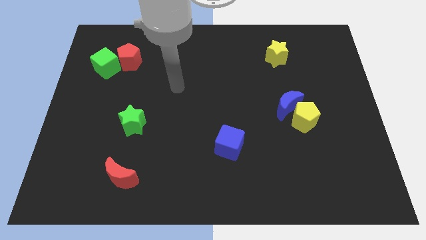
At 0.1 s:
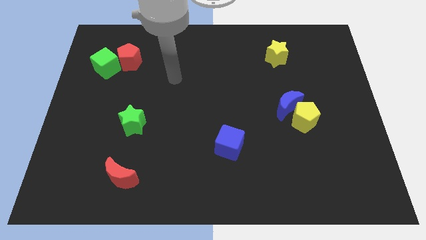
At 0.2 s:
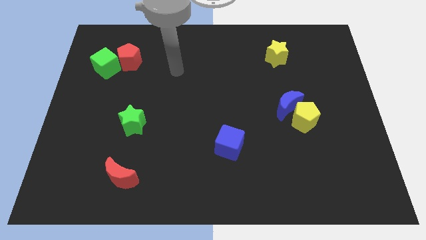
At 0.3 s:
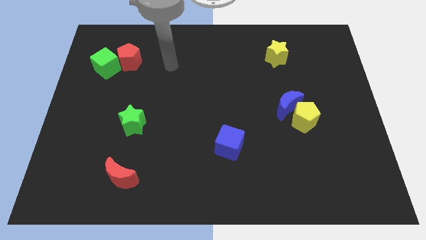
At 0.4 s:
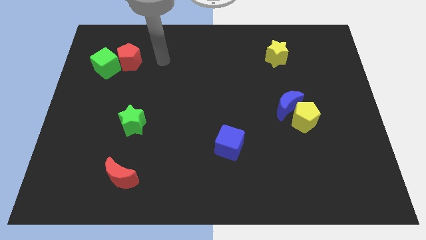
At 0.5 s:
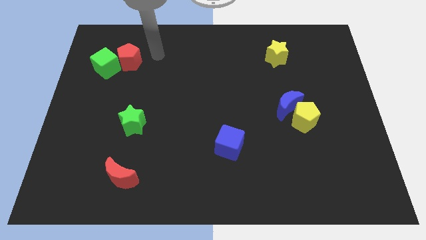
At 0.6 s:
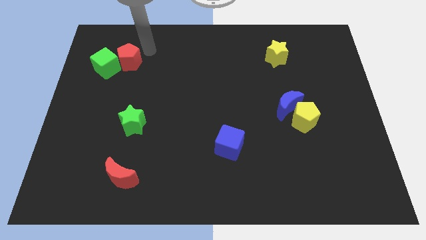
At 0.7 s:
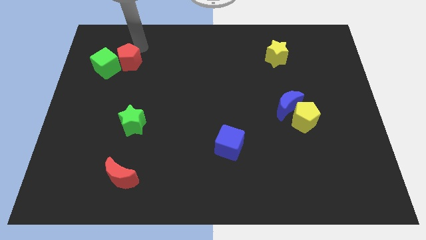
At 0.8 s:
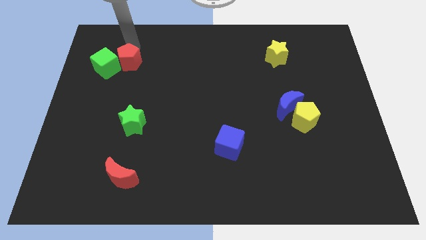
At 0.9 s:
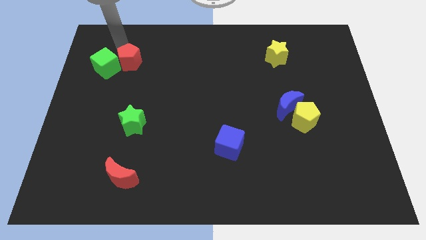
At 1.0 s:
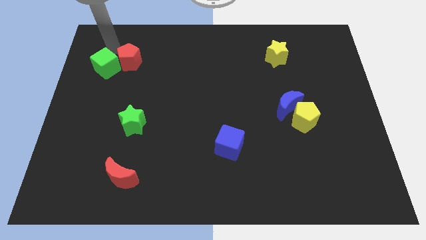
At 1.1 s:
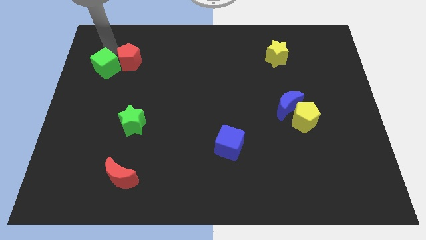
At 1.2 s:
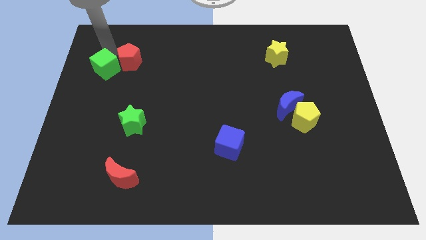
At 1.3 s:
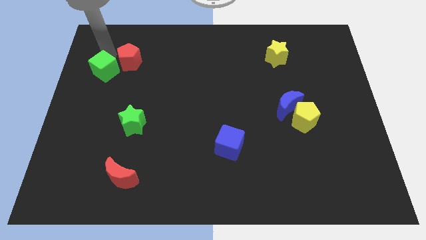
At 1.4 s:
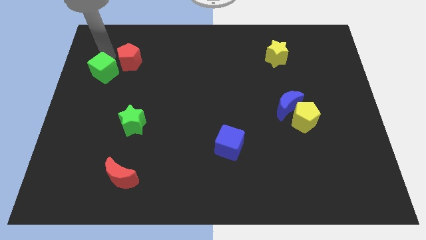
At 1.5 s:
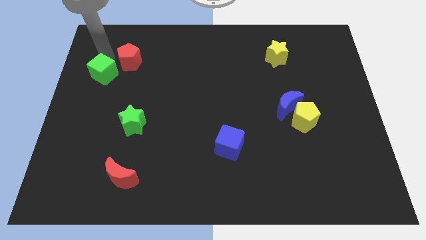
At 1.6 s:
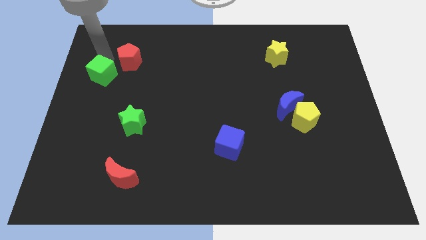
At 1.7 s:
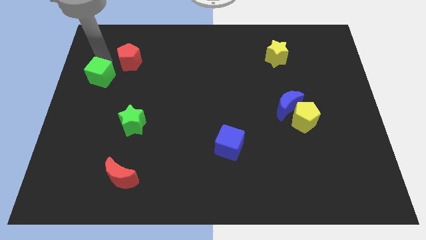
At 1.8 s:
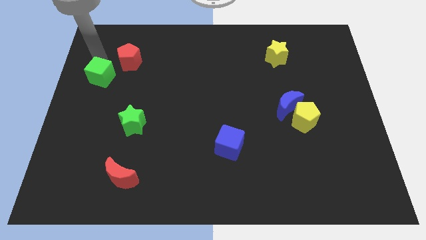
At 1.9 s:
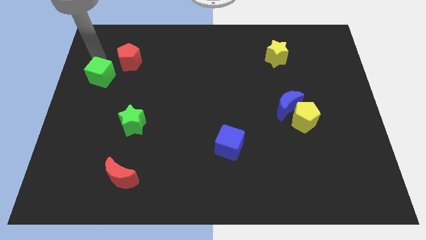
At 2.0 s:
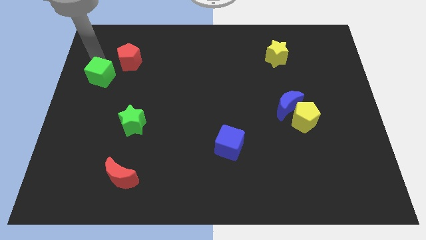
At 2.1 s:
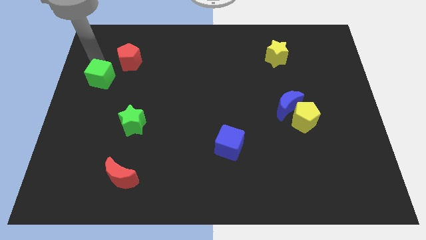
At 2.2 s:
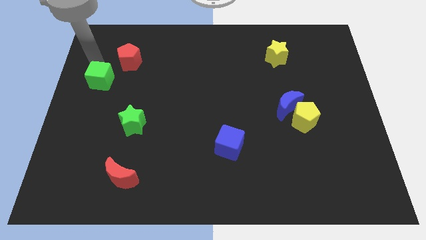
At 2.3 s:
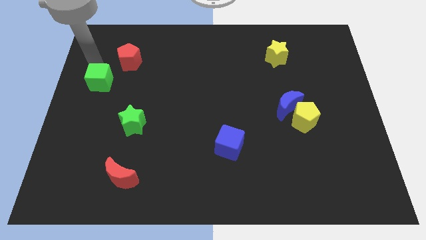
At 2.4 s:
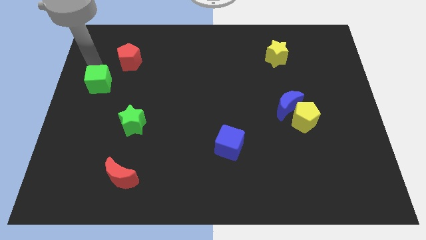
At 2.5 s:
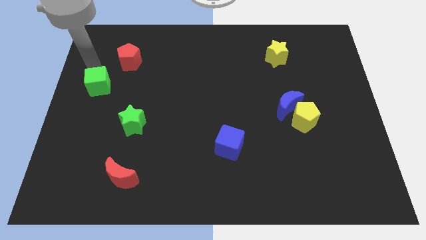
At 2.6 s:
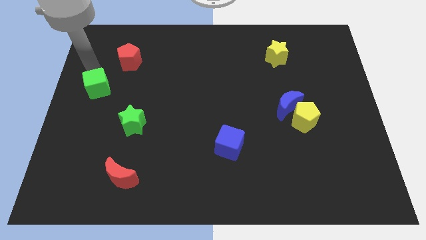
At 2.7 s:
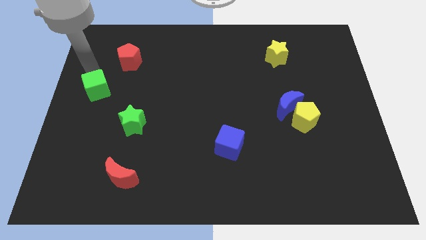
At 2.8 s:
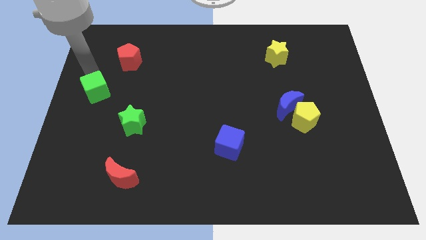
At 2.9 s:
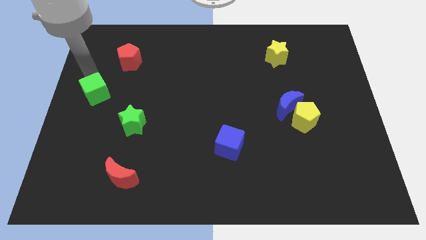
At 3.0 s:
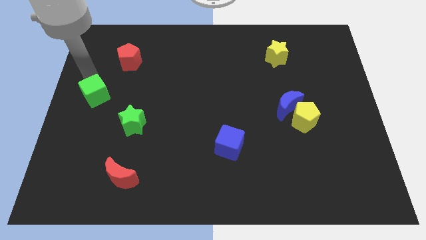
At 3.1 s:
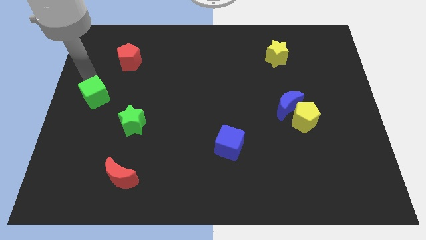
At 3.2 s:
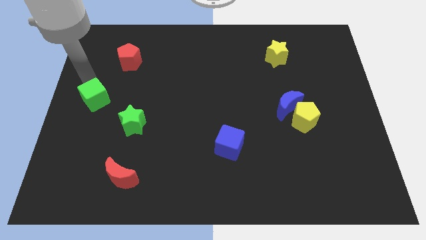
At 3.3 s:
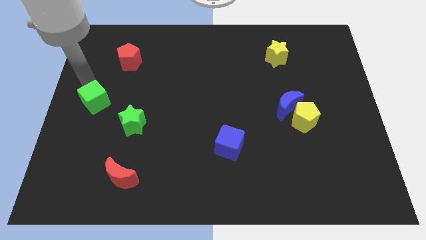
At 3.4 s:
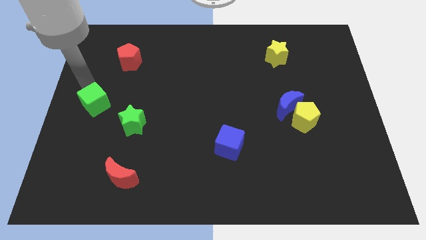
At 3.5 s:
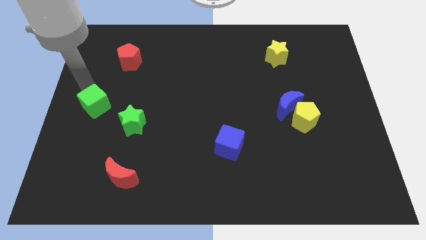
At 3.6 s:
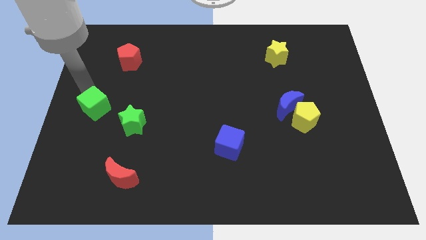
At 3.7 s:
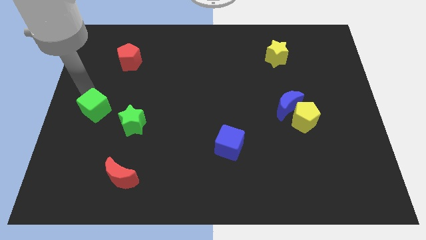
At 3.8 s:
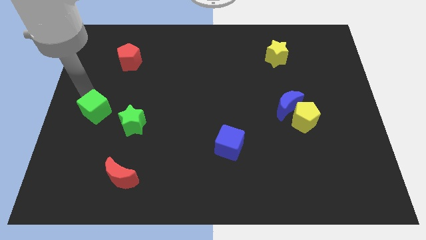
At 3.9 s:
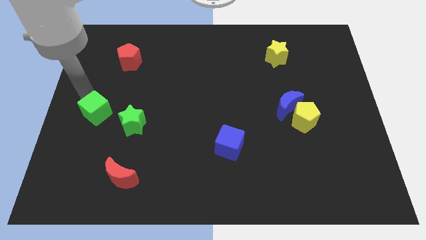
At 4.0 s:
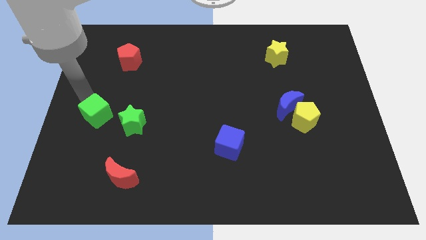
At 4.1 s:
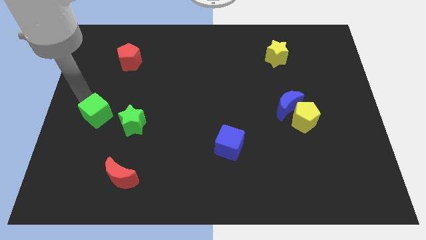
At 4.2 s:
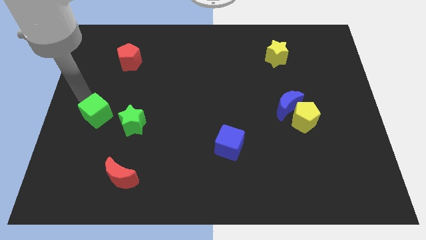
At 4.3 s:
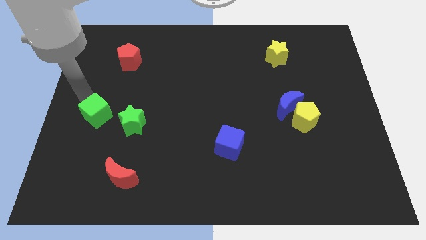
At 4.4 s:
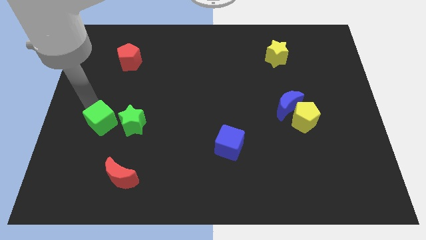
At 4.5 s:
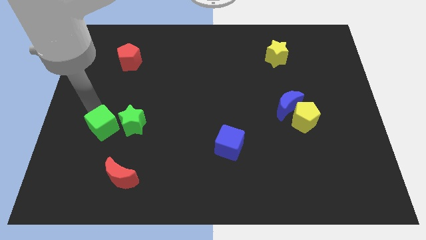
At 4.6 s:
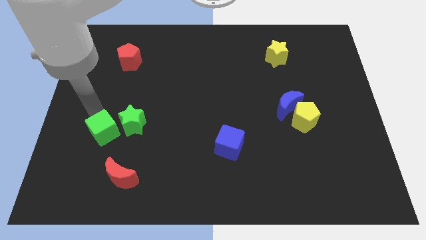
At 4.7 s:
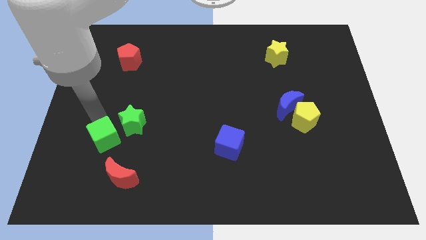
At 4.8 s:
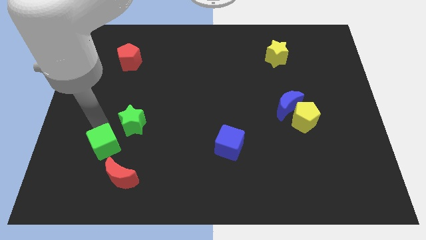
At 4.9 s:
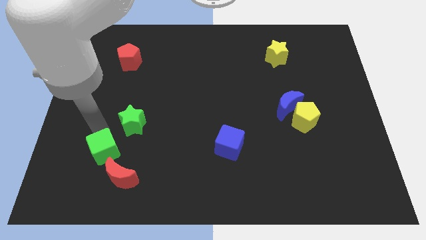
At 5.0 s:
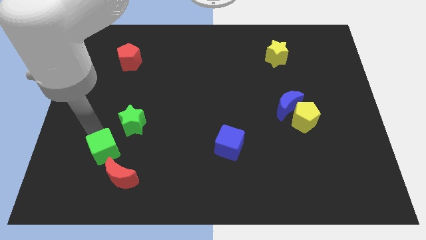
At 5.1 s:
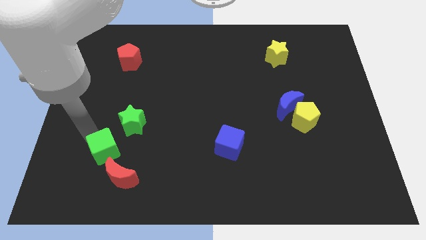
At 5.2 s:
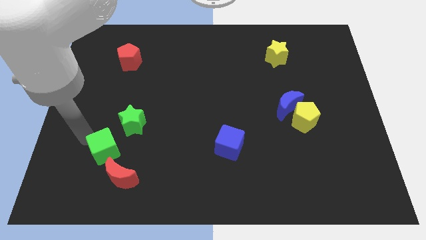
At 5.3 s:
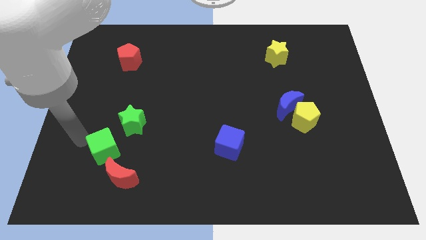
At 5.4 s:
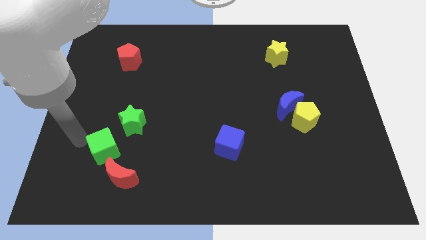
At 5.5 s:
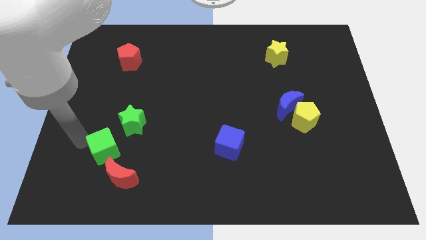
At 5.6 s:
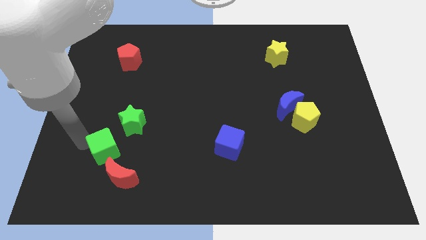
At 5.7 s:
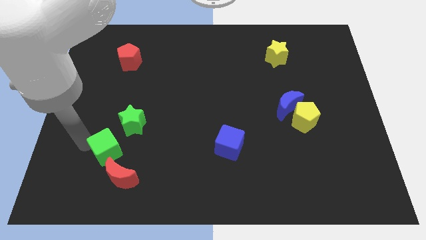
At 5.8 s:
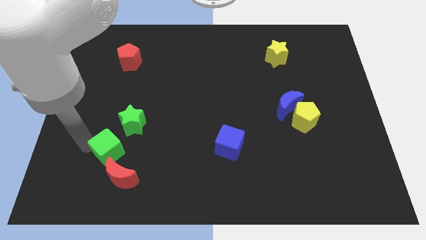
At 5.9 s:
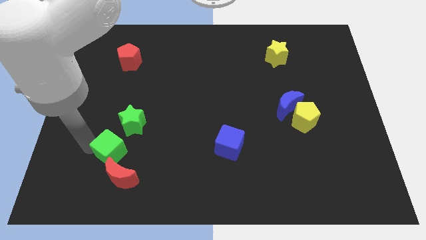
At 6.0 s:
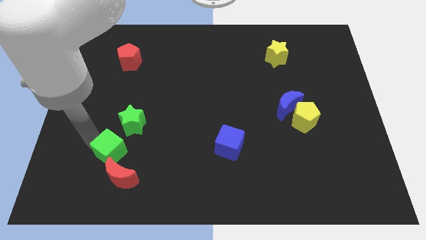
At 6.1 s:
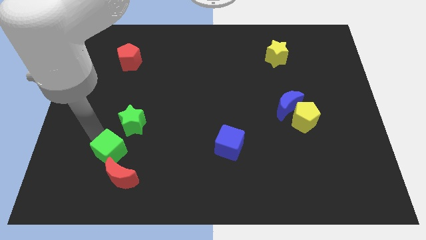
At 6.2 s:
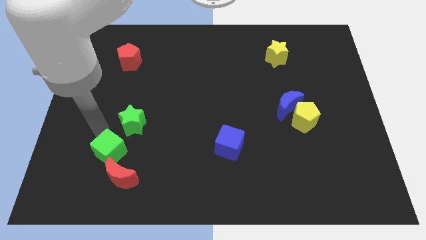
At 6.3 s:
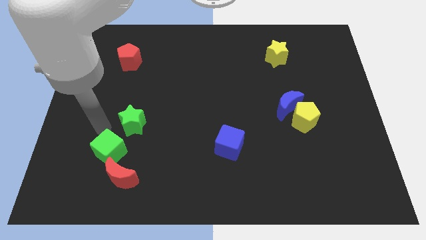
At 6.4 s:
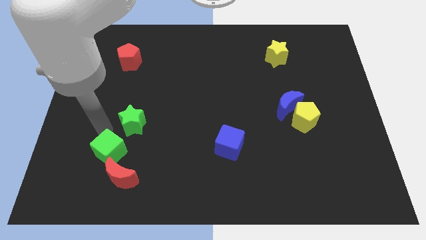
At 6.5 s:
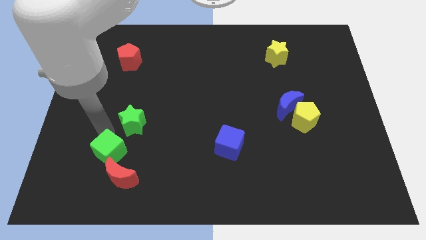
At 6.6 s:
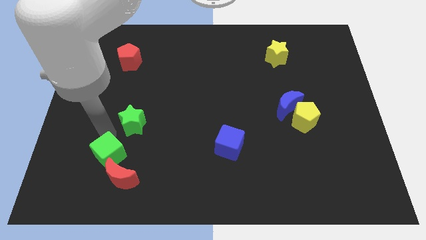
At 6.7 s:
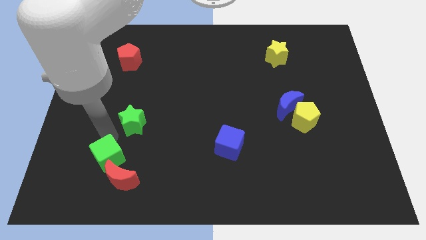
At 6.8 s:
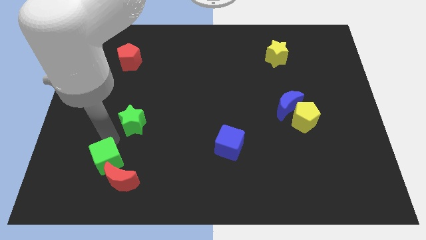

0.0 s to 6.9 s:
move the green cube close to the red moon

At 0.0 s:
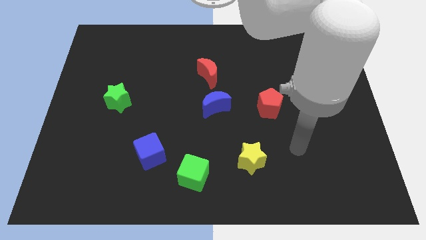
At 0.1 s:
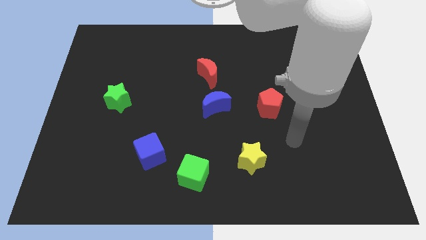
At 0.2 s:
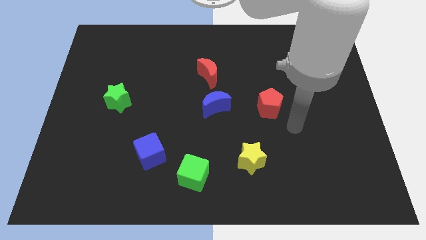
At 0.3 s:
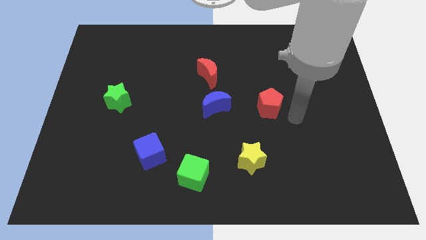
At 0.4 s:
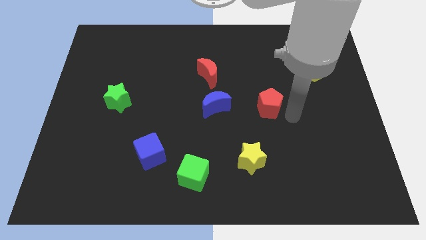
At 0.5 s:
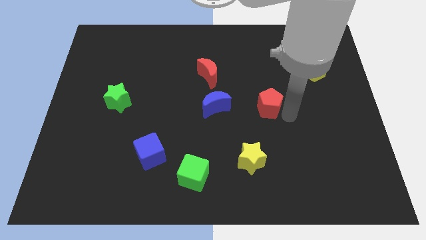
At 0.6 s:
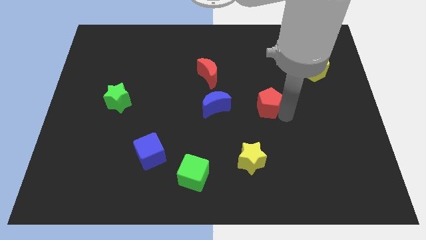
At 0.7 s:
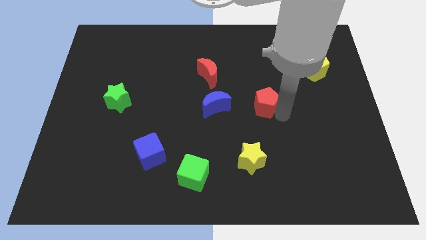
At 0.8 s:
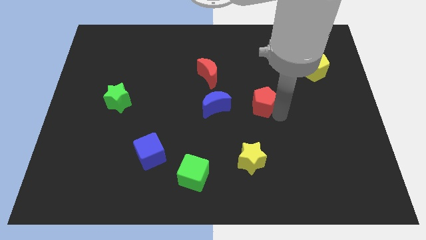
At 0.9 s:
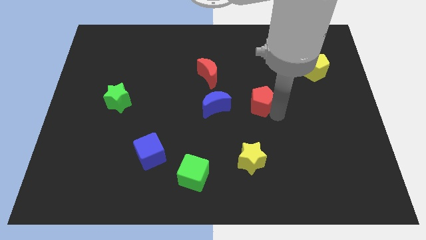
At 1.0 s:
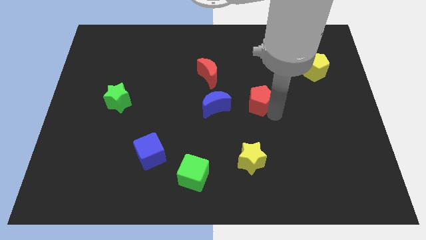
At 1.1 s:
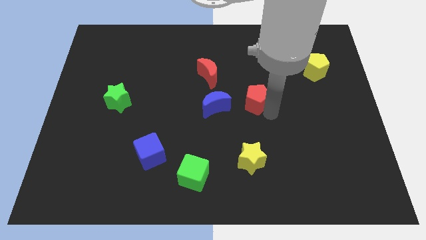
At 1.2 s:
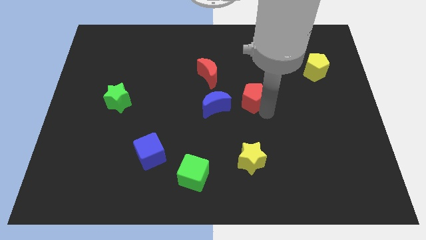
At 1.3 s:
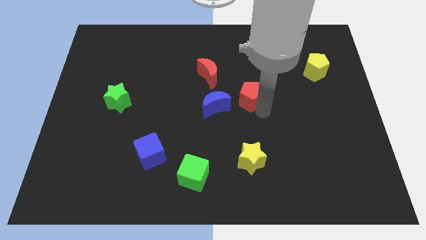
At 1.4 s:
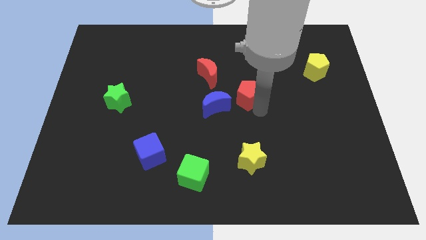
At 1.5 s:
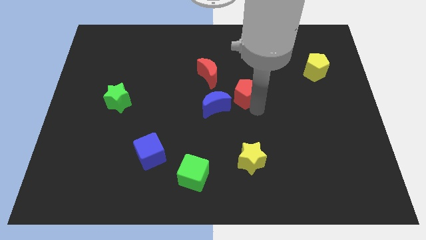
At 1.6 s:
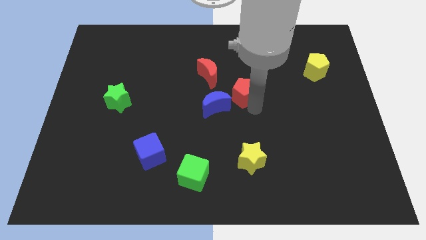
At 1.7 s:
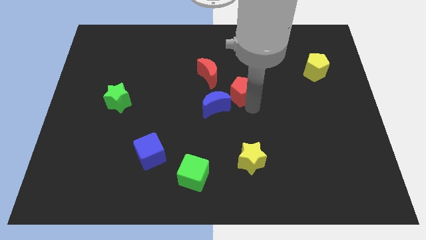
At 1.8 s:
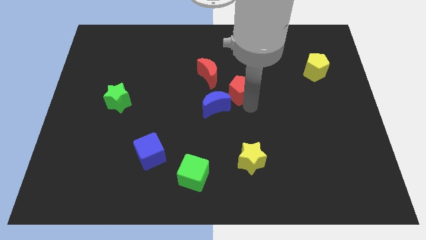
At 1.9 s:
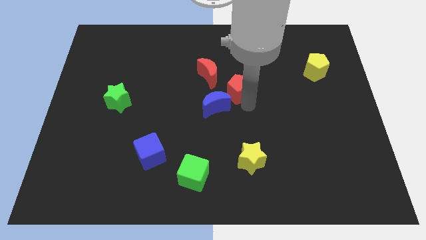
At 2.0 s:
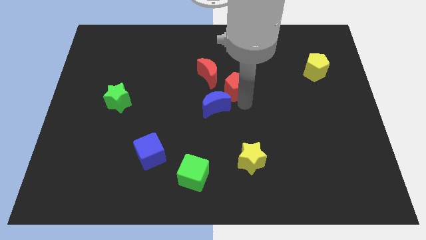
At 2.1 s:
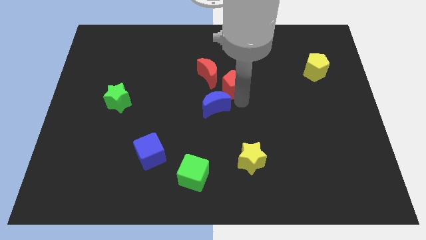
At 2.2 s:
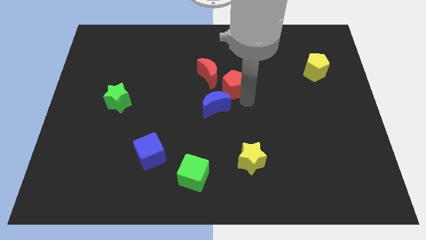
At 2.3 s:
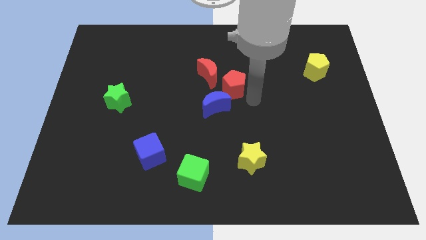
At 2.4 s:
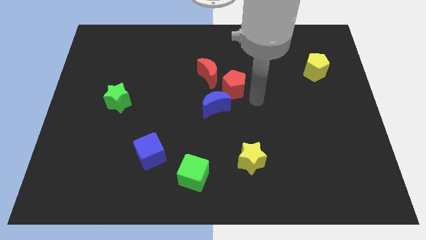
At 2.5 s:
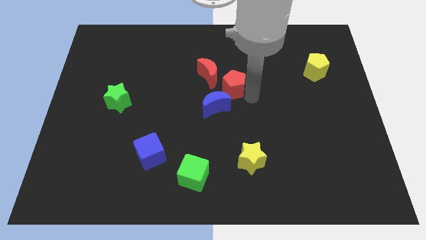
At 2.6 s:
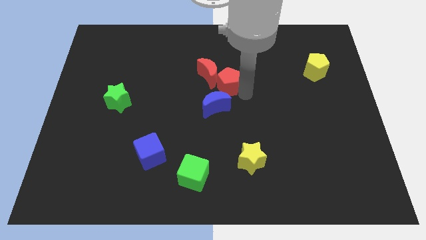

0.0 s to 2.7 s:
push the red pentagon close to the red moon
